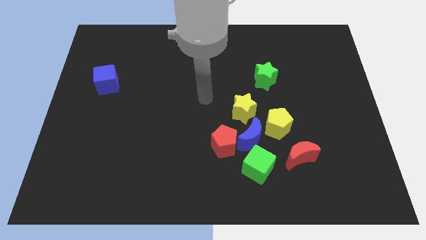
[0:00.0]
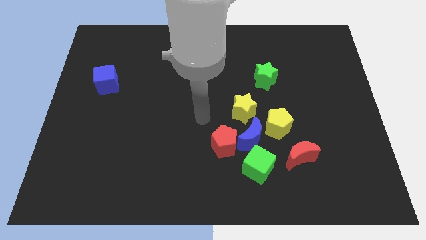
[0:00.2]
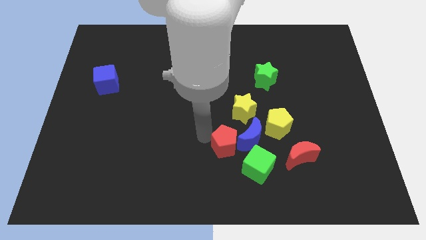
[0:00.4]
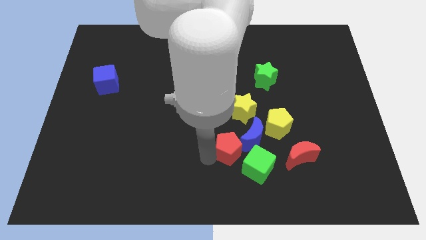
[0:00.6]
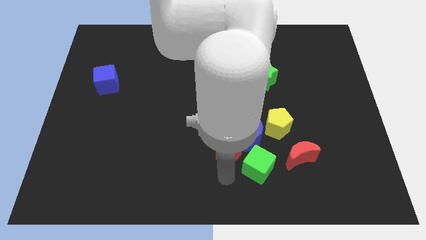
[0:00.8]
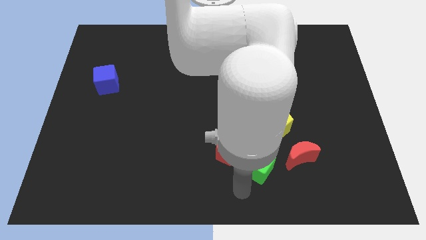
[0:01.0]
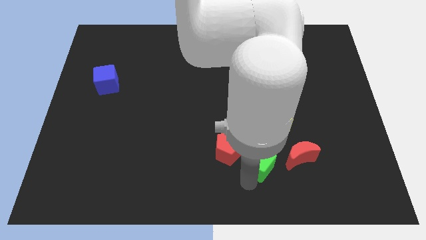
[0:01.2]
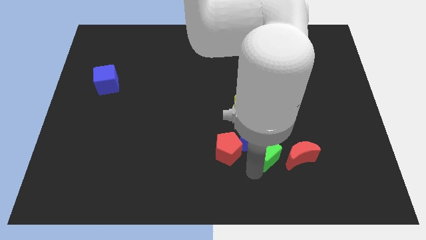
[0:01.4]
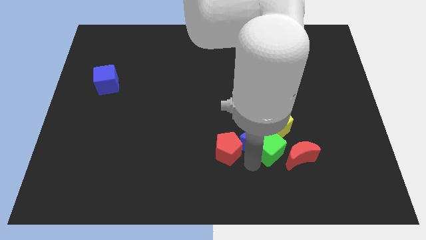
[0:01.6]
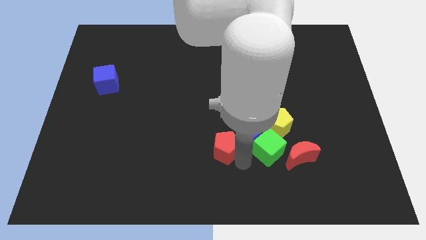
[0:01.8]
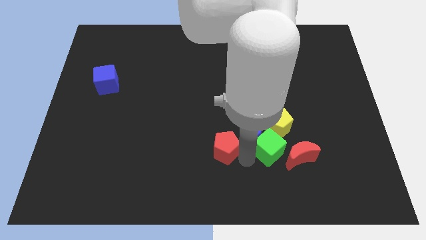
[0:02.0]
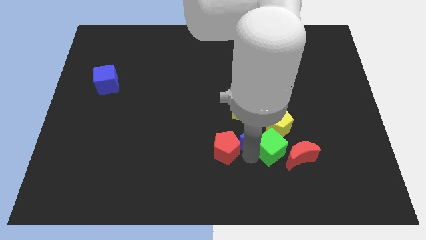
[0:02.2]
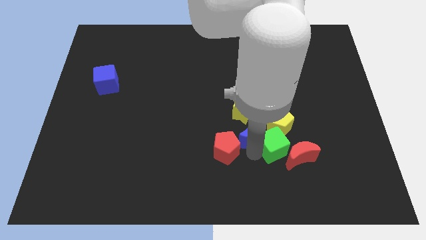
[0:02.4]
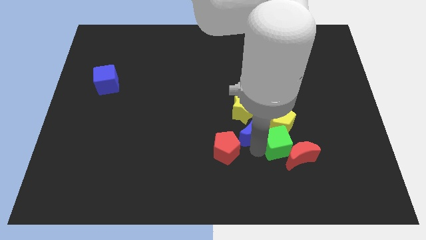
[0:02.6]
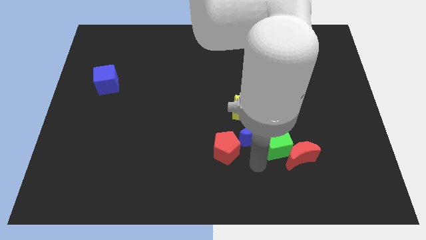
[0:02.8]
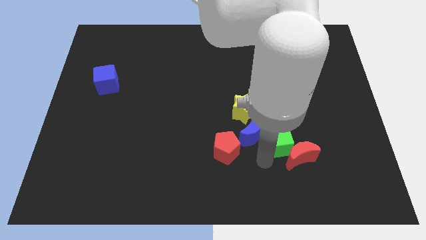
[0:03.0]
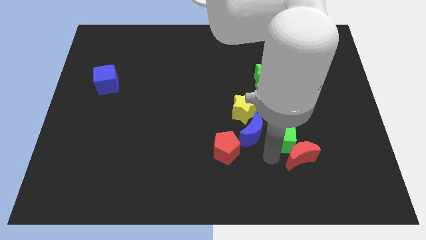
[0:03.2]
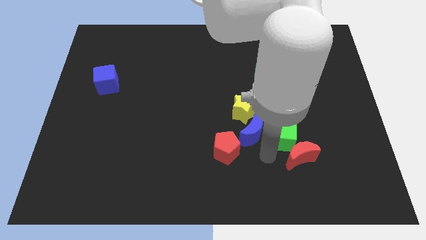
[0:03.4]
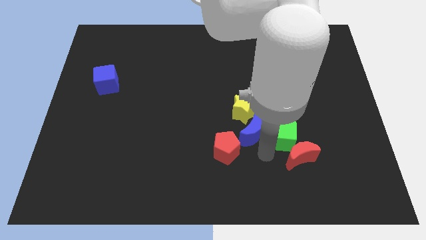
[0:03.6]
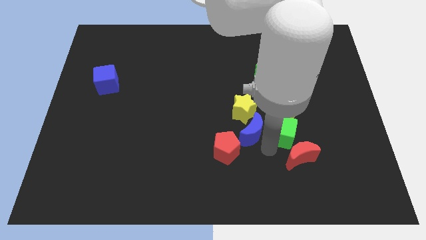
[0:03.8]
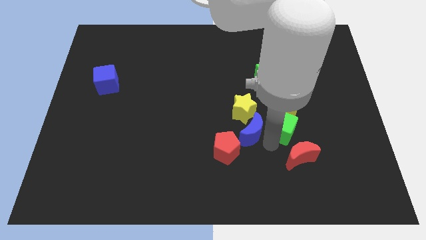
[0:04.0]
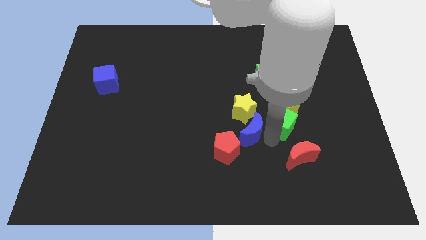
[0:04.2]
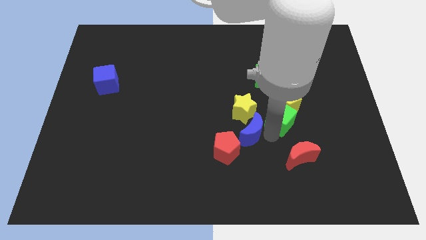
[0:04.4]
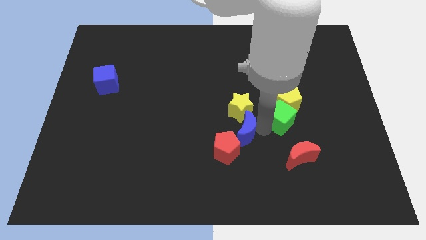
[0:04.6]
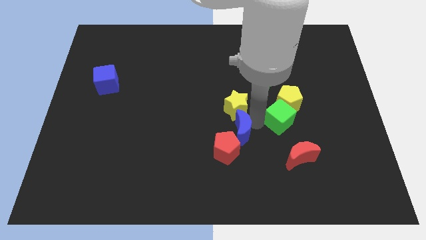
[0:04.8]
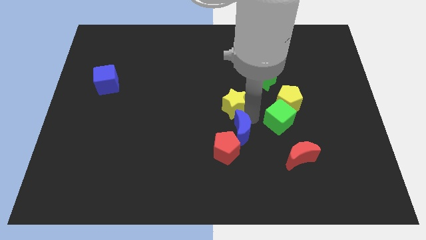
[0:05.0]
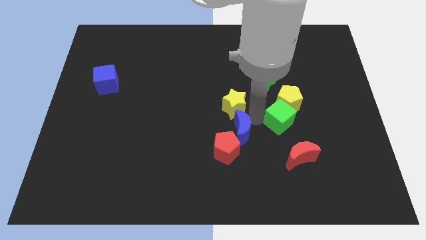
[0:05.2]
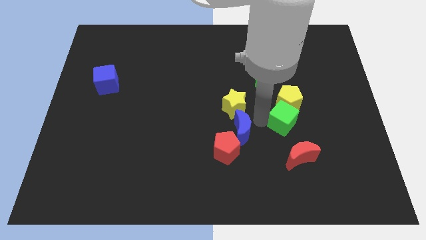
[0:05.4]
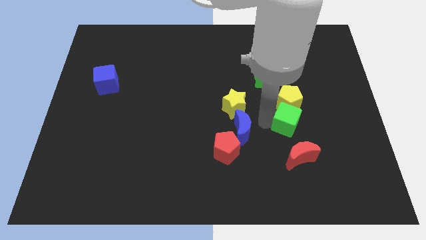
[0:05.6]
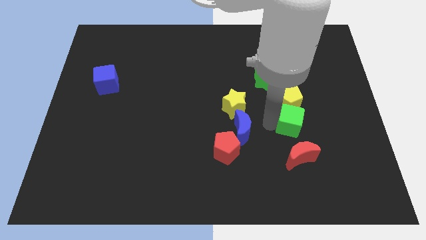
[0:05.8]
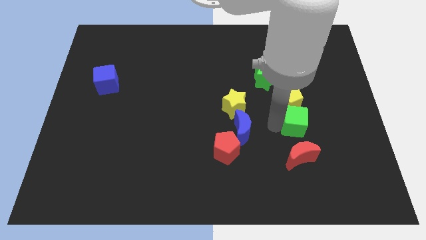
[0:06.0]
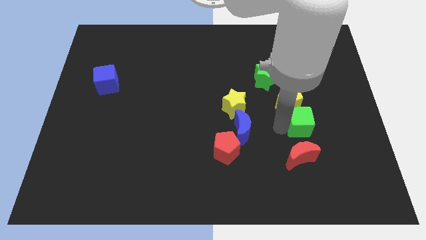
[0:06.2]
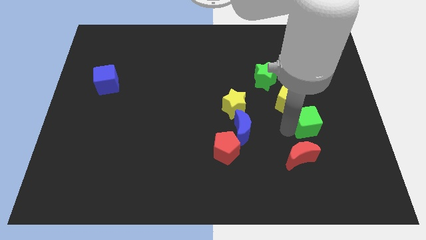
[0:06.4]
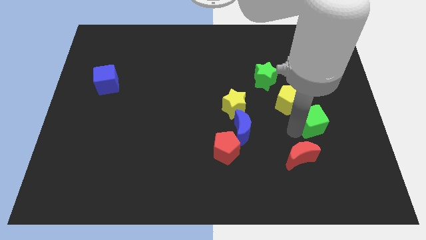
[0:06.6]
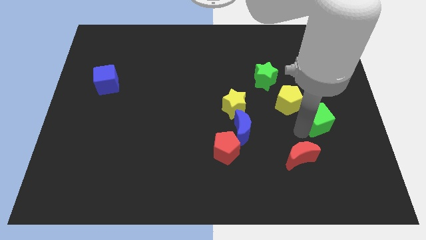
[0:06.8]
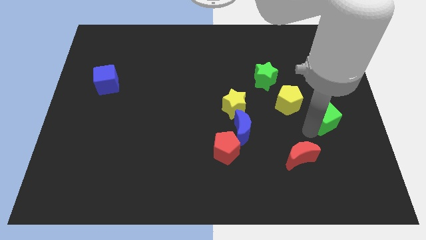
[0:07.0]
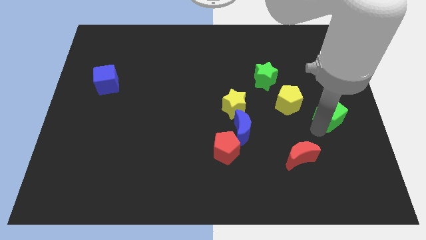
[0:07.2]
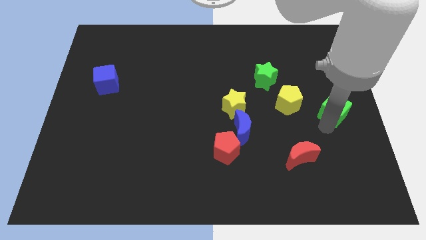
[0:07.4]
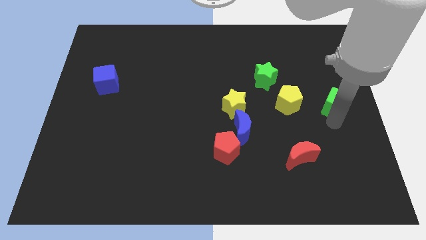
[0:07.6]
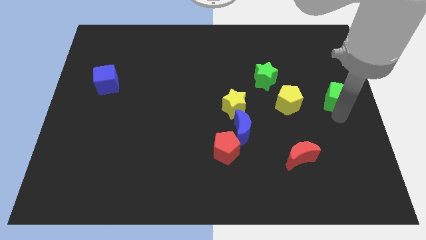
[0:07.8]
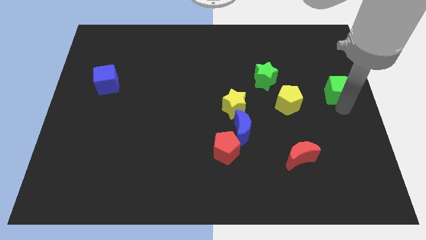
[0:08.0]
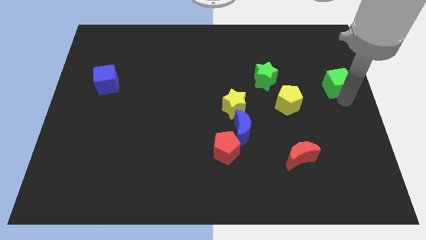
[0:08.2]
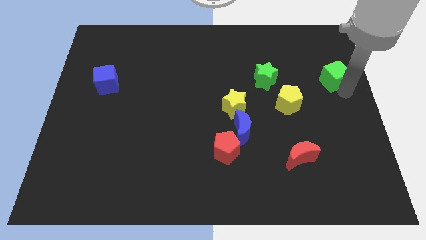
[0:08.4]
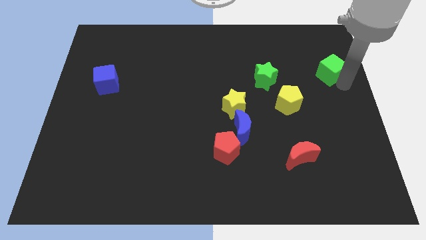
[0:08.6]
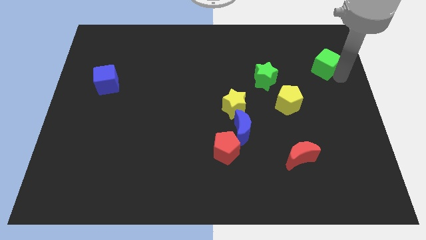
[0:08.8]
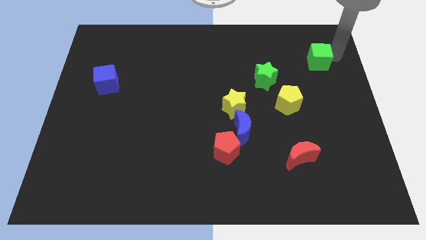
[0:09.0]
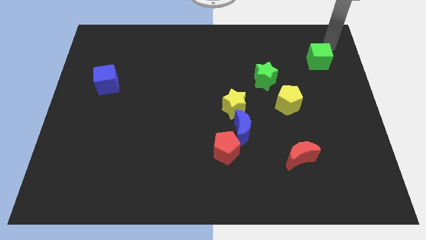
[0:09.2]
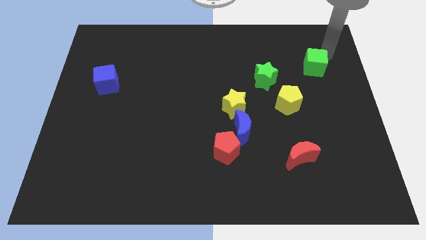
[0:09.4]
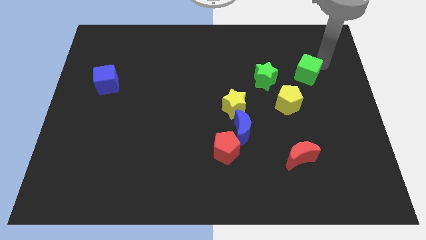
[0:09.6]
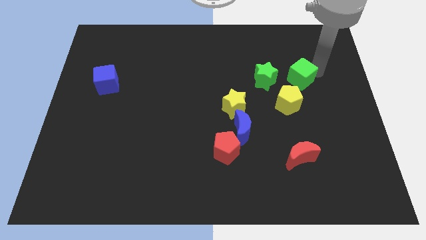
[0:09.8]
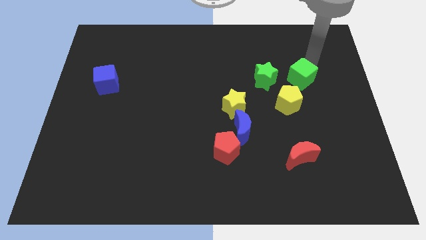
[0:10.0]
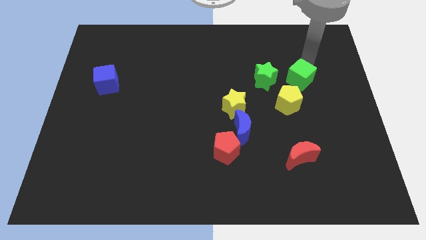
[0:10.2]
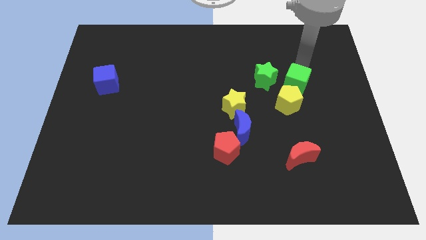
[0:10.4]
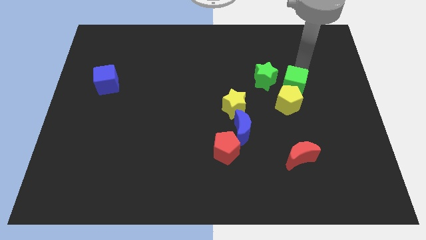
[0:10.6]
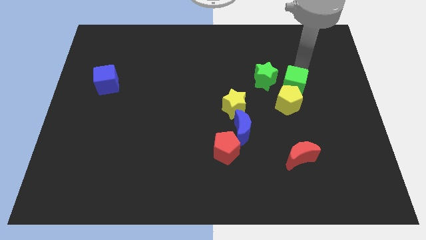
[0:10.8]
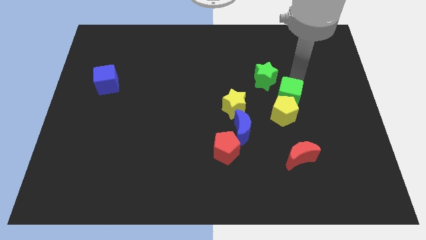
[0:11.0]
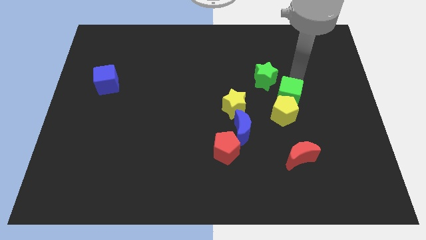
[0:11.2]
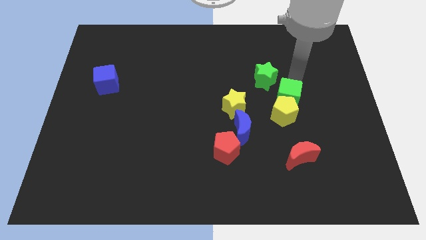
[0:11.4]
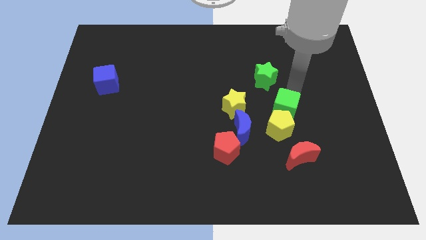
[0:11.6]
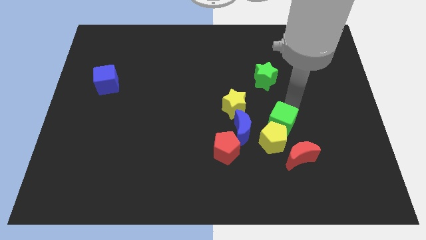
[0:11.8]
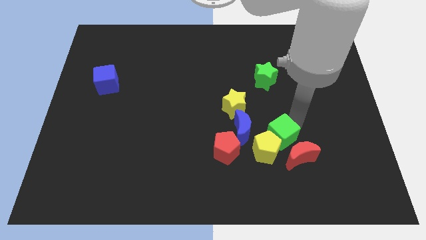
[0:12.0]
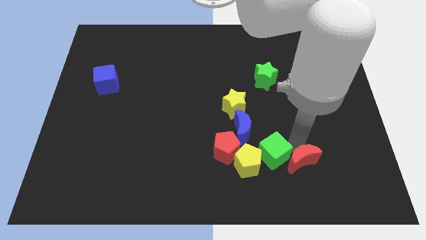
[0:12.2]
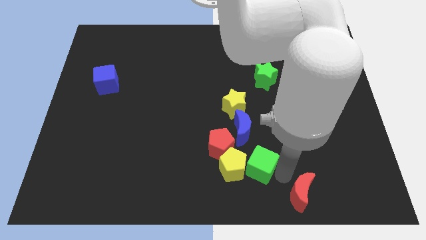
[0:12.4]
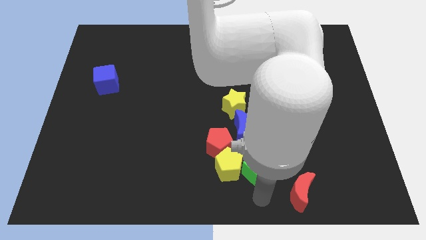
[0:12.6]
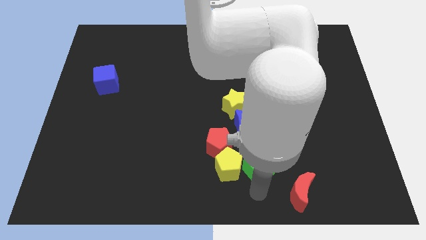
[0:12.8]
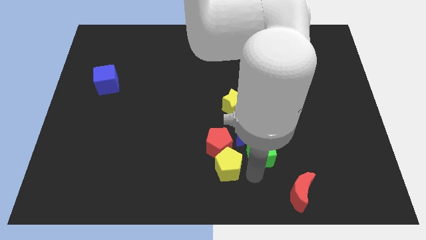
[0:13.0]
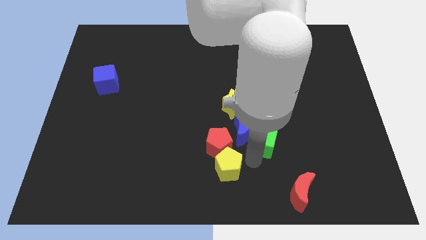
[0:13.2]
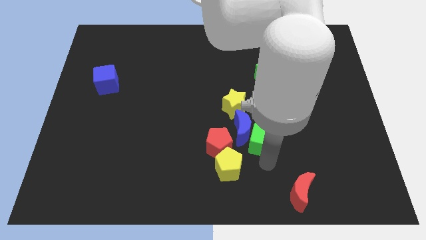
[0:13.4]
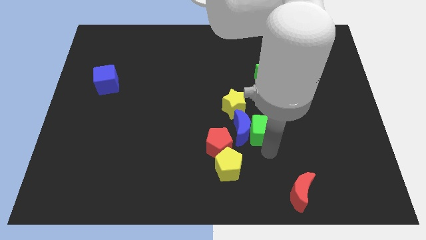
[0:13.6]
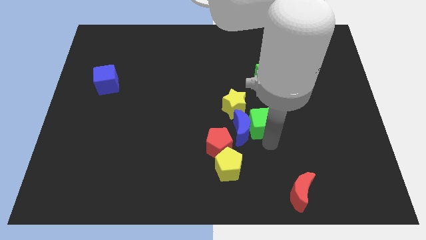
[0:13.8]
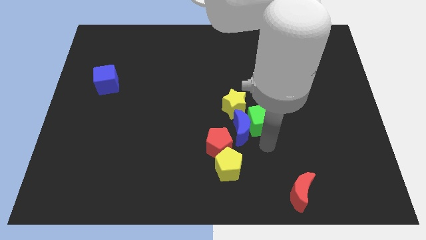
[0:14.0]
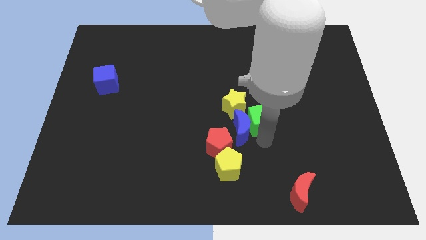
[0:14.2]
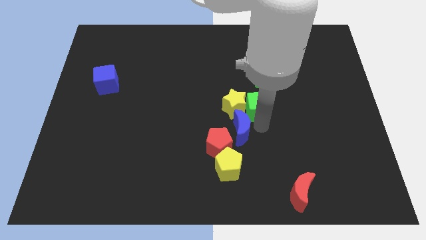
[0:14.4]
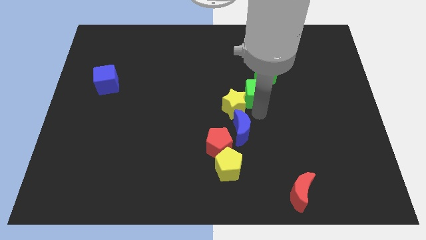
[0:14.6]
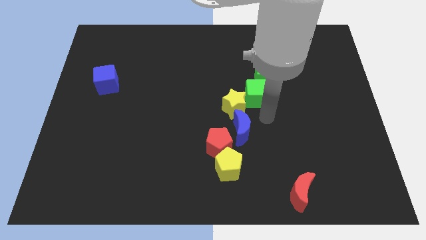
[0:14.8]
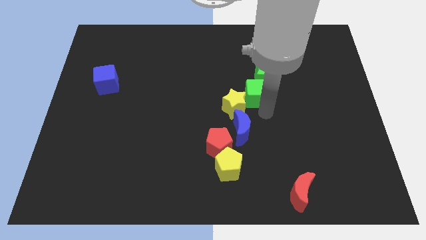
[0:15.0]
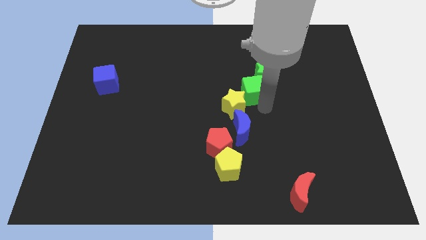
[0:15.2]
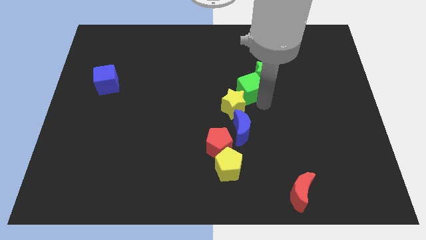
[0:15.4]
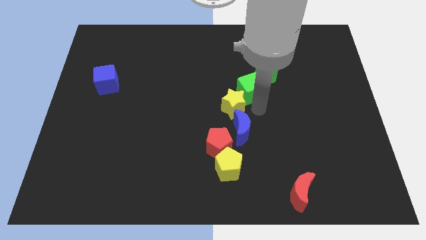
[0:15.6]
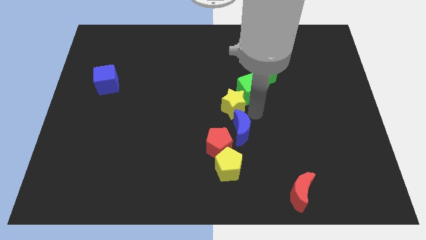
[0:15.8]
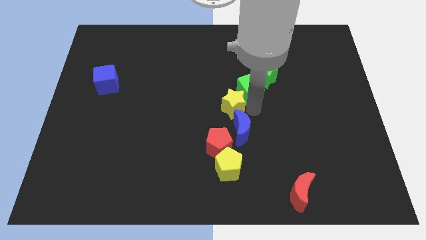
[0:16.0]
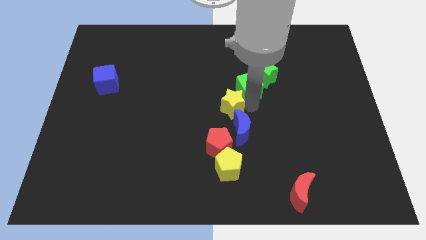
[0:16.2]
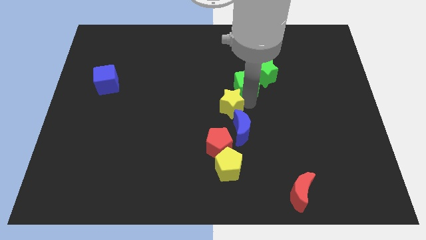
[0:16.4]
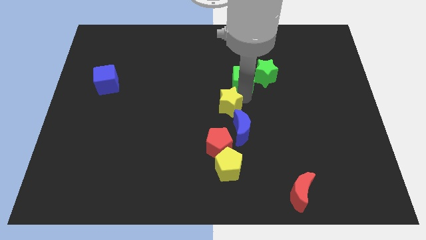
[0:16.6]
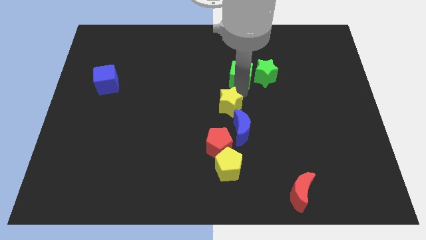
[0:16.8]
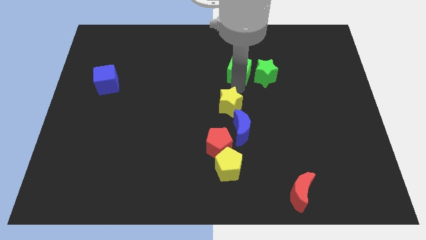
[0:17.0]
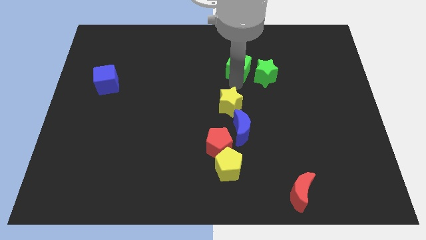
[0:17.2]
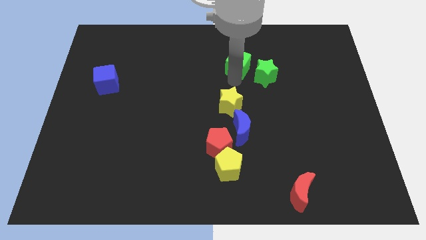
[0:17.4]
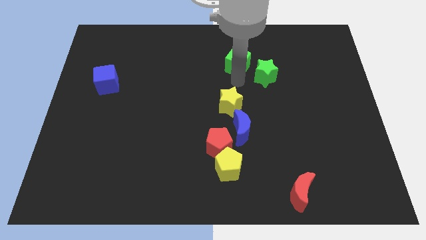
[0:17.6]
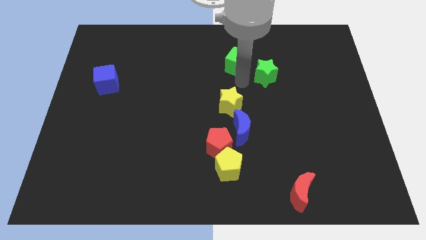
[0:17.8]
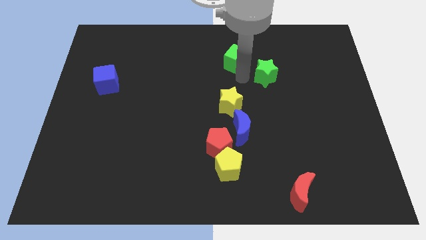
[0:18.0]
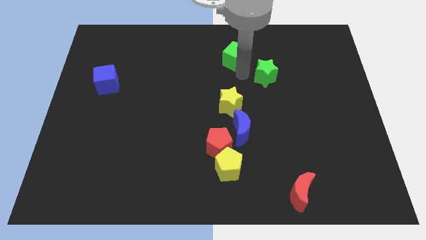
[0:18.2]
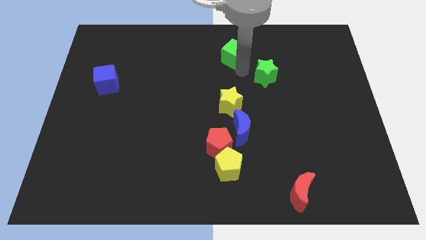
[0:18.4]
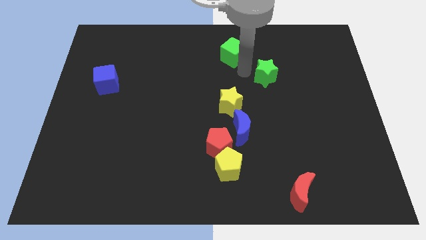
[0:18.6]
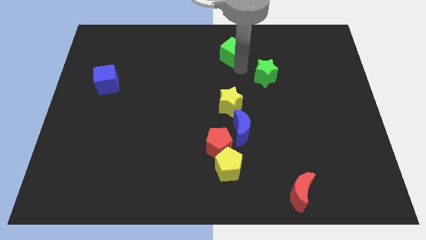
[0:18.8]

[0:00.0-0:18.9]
put the green cube to the top
